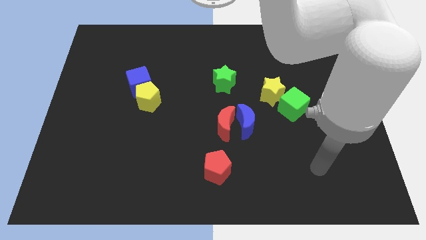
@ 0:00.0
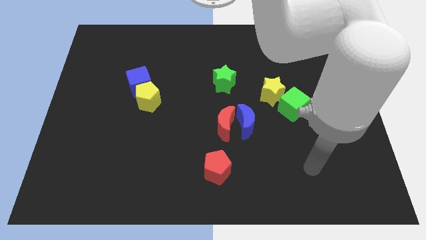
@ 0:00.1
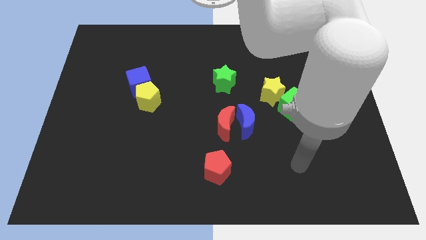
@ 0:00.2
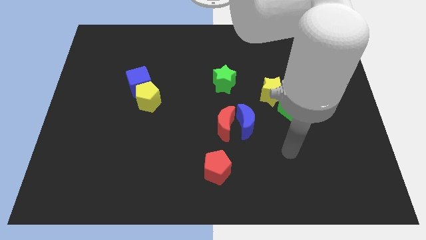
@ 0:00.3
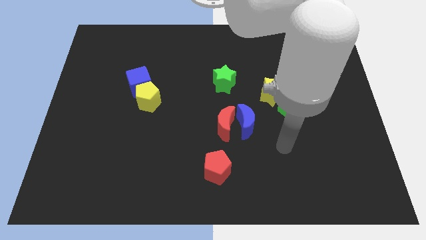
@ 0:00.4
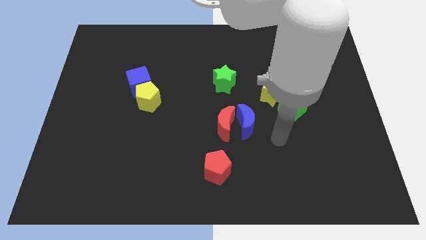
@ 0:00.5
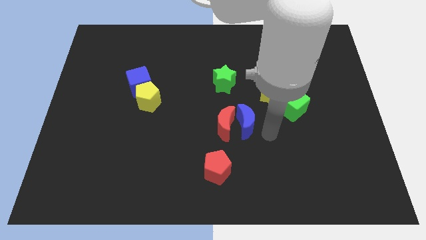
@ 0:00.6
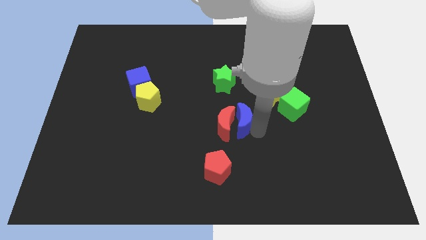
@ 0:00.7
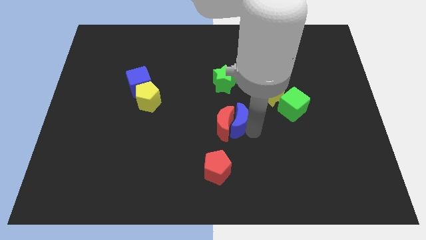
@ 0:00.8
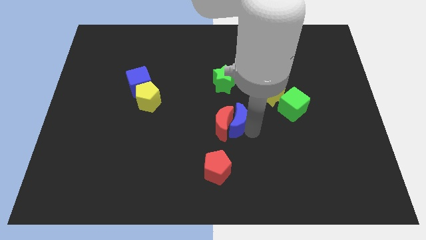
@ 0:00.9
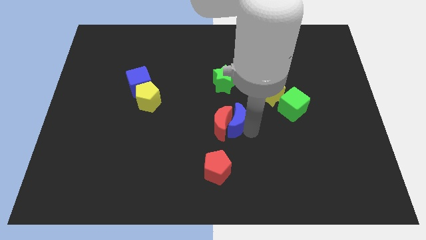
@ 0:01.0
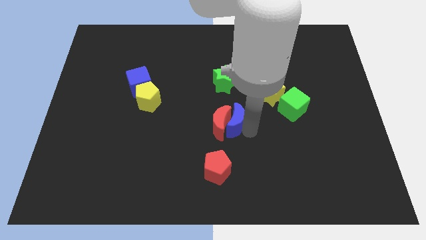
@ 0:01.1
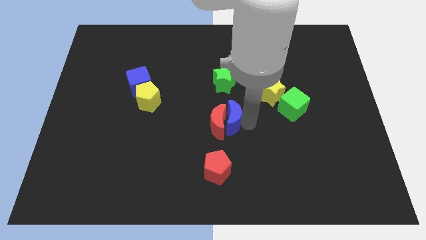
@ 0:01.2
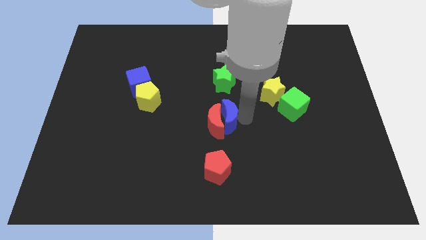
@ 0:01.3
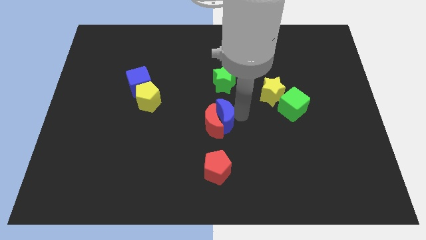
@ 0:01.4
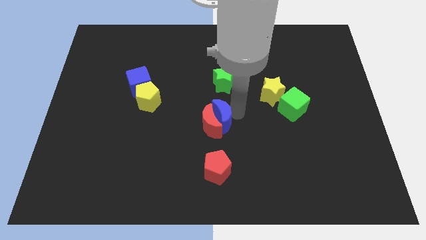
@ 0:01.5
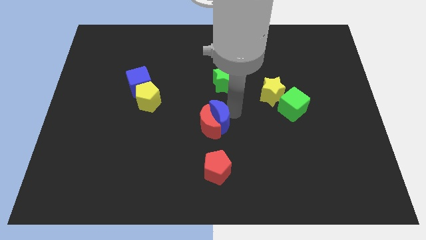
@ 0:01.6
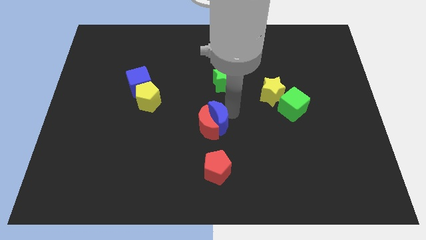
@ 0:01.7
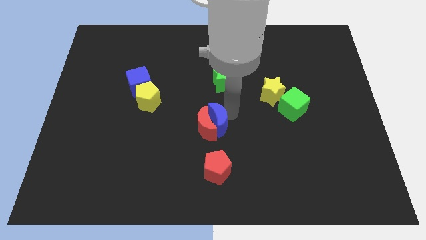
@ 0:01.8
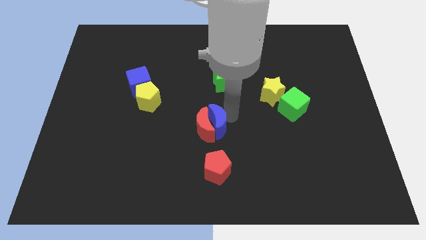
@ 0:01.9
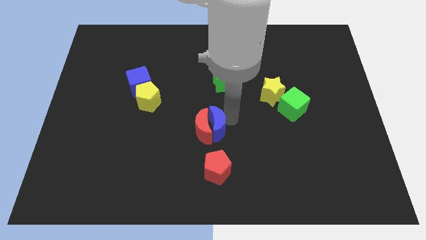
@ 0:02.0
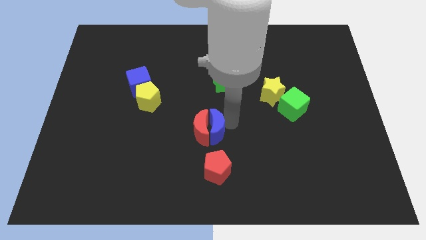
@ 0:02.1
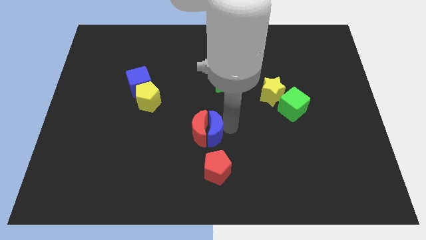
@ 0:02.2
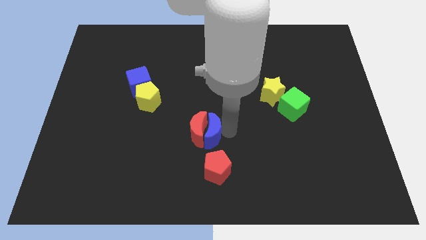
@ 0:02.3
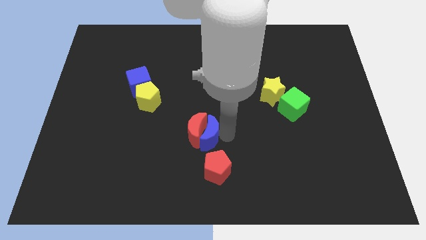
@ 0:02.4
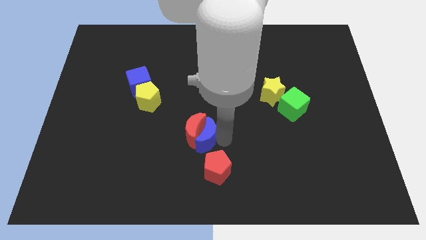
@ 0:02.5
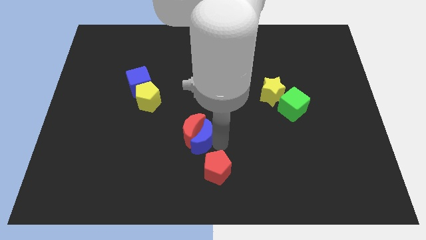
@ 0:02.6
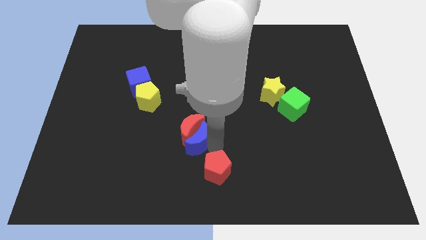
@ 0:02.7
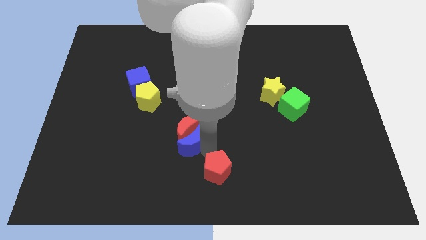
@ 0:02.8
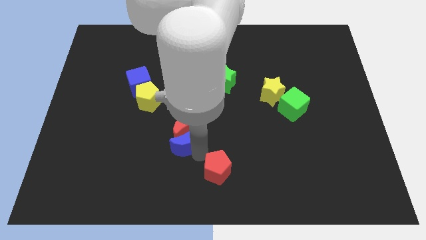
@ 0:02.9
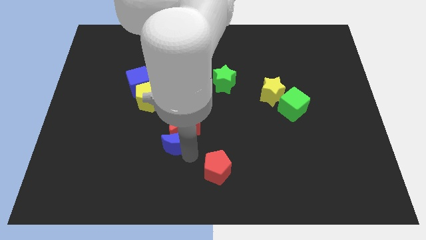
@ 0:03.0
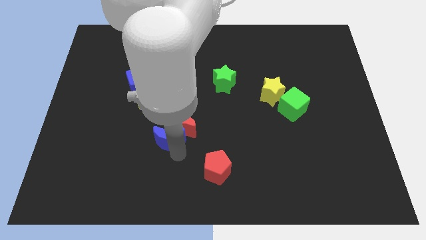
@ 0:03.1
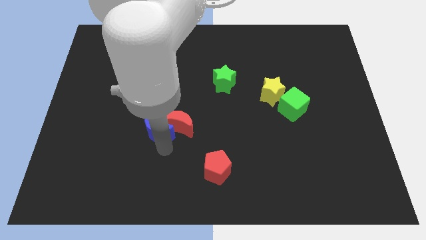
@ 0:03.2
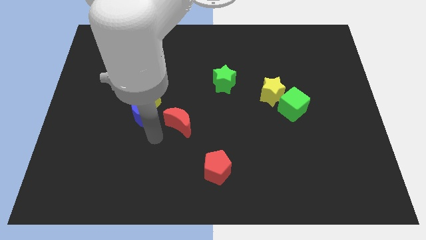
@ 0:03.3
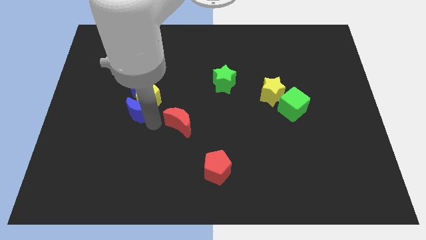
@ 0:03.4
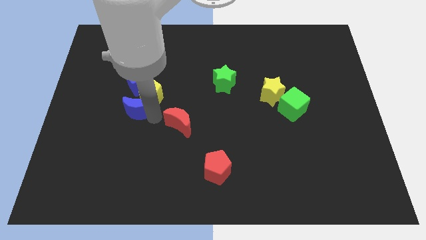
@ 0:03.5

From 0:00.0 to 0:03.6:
pull the red moon apart from the blue moon

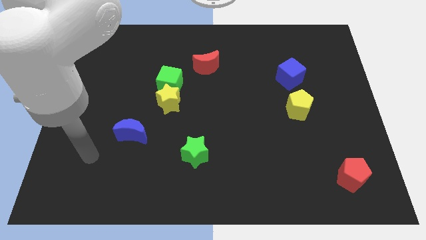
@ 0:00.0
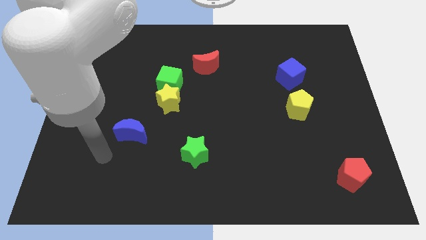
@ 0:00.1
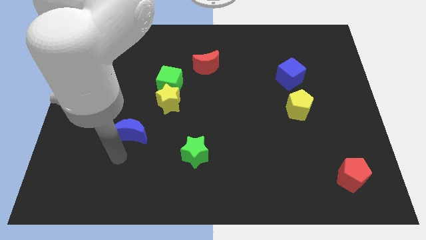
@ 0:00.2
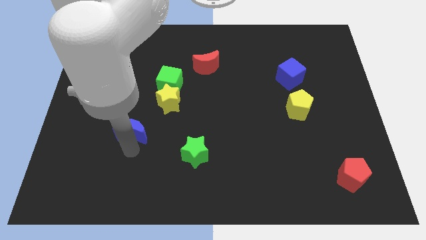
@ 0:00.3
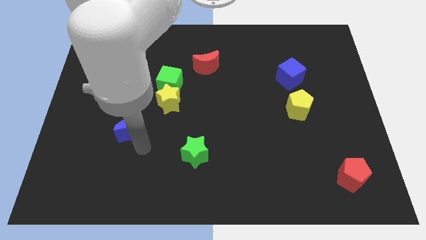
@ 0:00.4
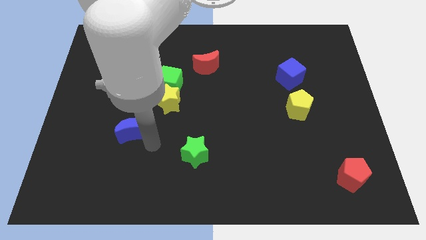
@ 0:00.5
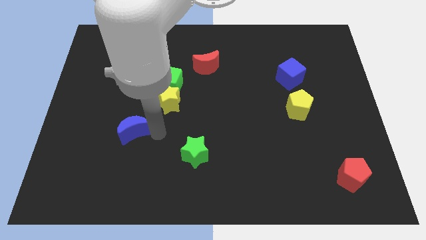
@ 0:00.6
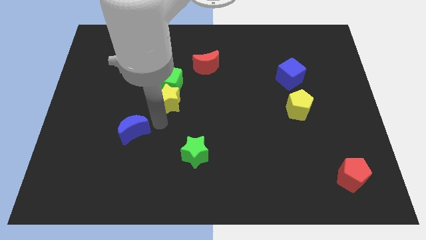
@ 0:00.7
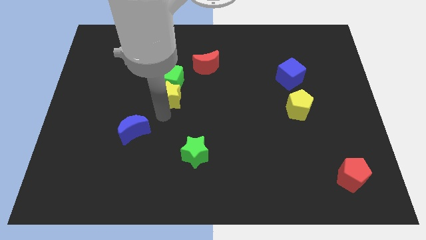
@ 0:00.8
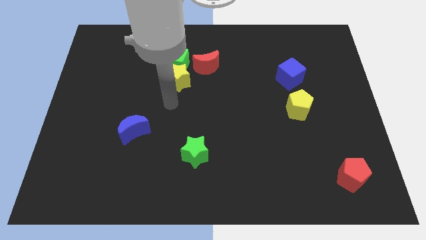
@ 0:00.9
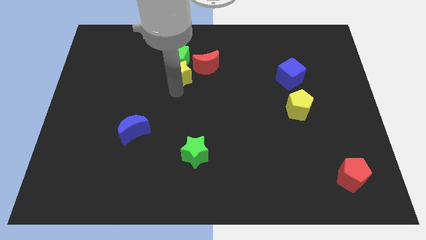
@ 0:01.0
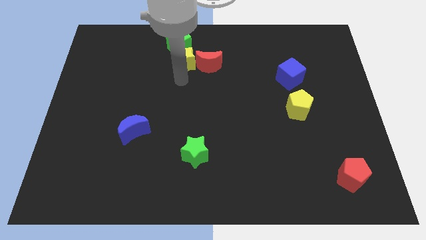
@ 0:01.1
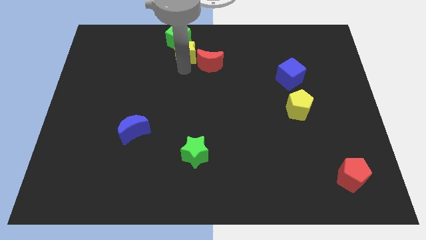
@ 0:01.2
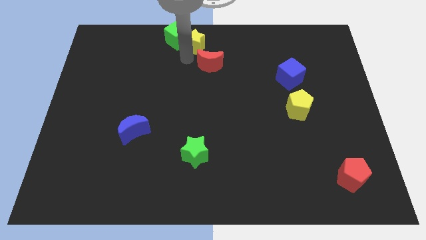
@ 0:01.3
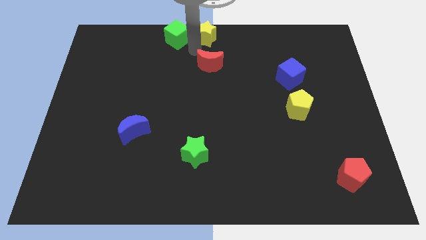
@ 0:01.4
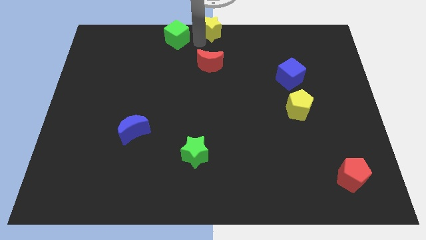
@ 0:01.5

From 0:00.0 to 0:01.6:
pull the green cube apart from the yellow star

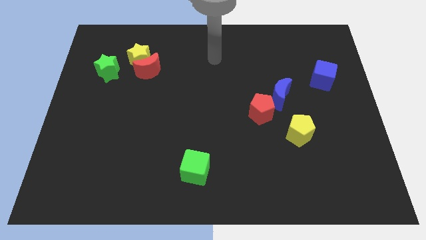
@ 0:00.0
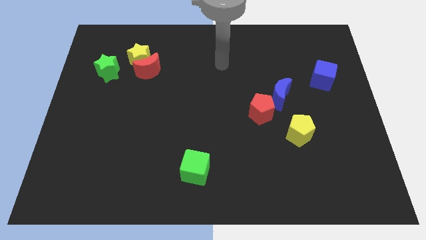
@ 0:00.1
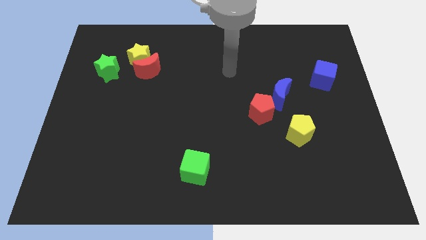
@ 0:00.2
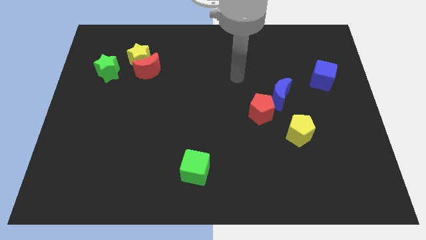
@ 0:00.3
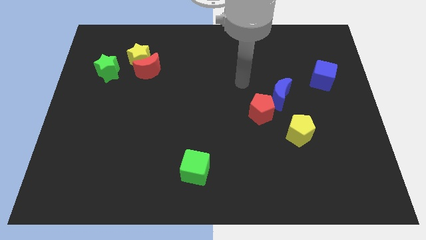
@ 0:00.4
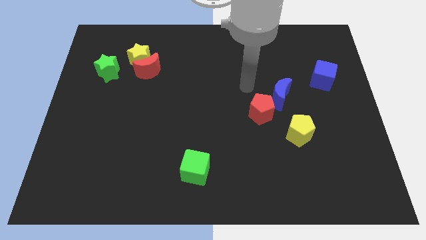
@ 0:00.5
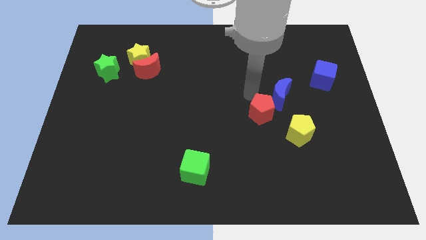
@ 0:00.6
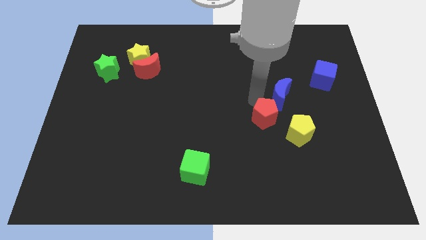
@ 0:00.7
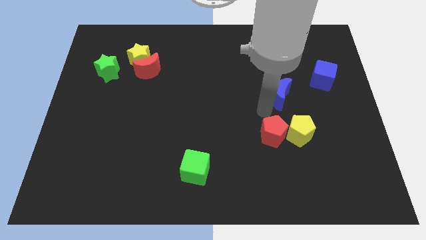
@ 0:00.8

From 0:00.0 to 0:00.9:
separate the blue moon from the red pentagon

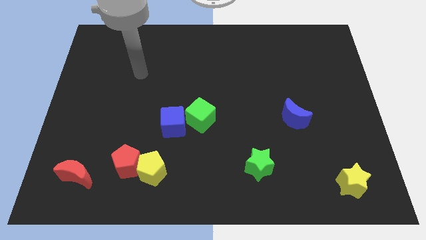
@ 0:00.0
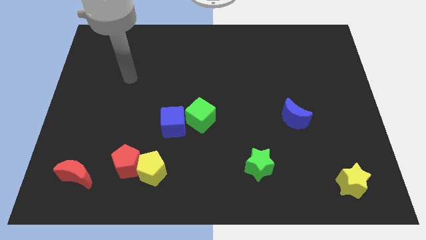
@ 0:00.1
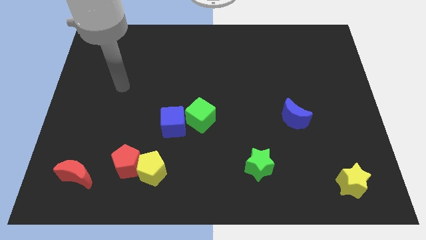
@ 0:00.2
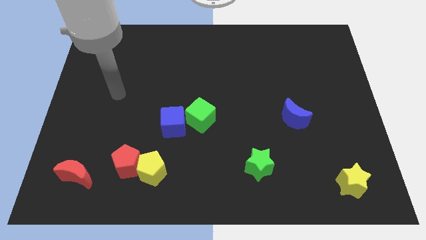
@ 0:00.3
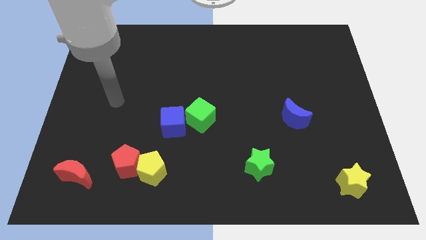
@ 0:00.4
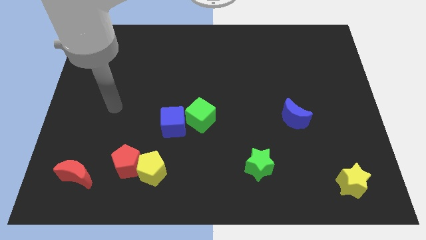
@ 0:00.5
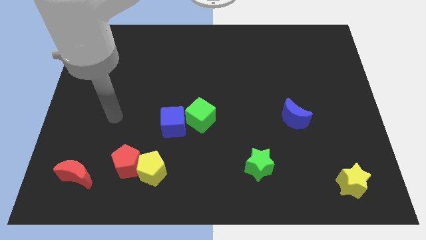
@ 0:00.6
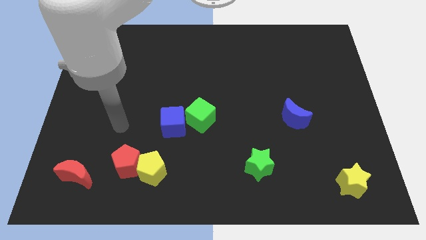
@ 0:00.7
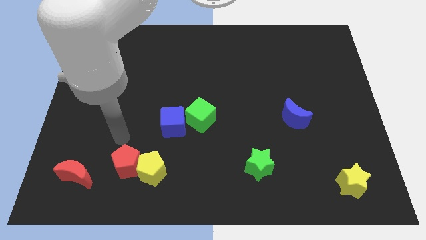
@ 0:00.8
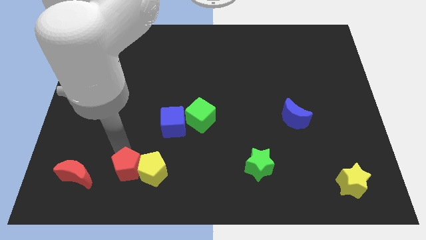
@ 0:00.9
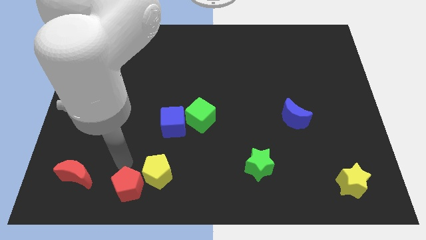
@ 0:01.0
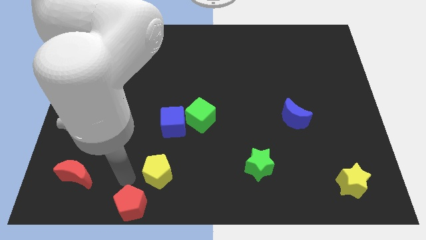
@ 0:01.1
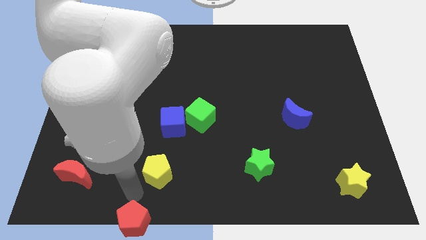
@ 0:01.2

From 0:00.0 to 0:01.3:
pull the yellow pentagon apart from the red pentagon

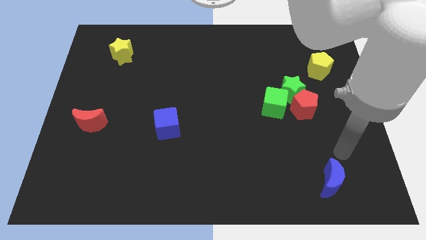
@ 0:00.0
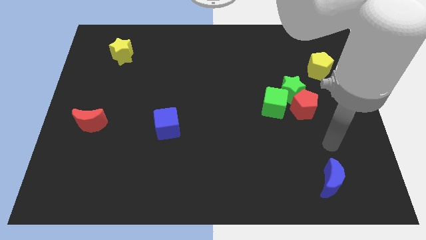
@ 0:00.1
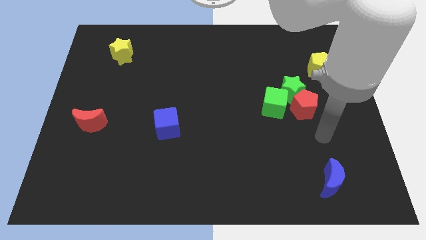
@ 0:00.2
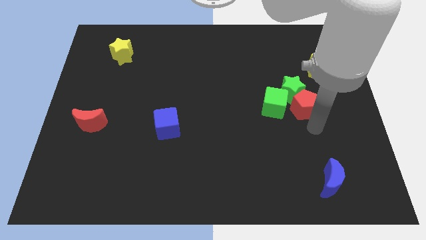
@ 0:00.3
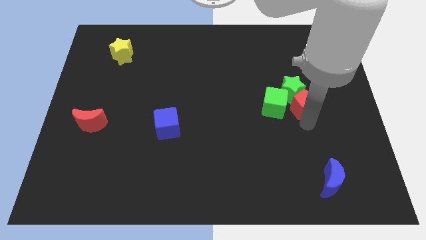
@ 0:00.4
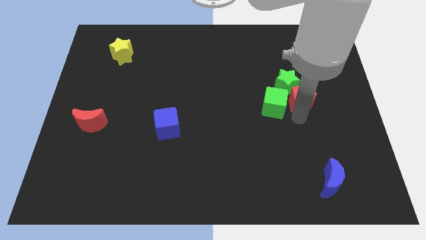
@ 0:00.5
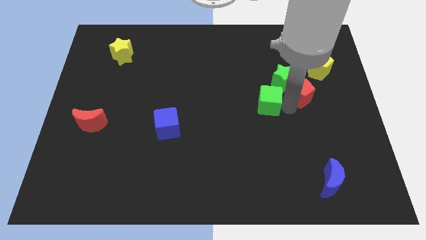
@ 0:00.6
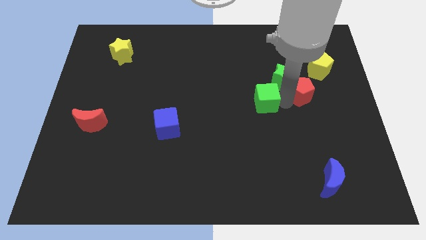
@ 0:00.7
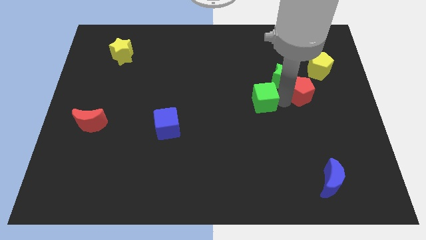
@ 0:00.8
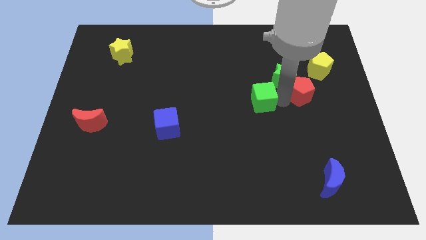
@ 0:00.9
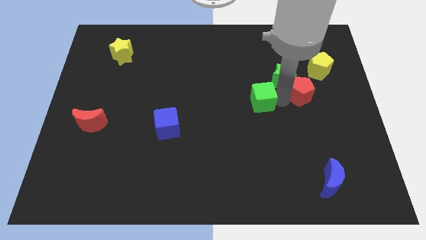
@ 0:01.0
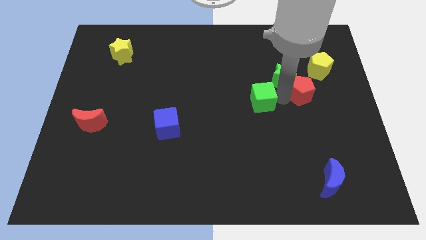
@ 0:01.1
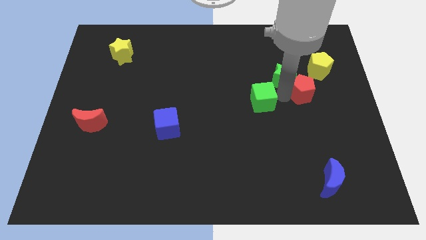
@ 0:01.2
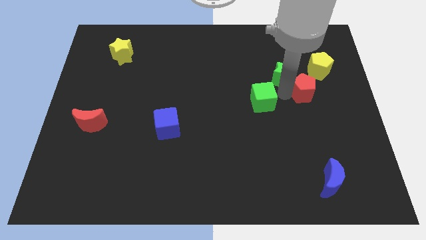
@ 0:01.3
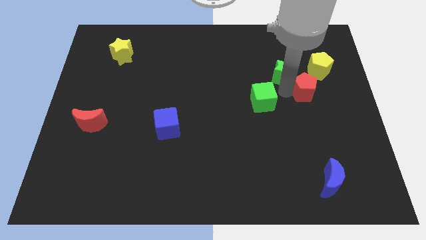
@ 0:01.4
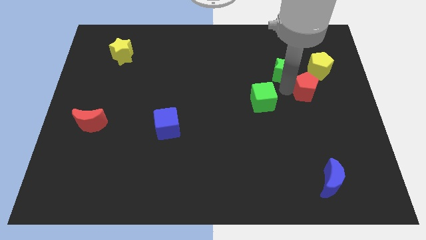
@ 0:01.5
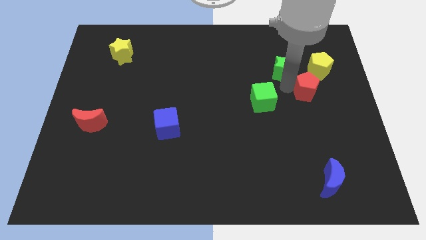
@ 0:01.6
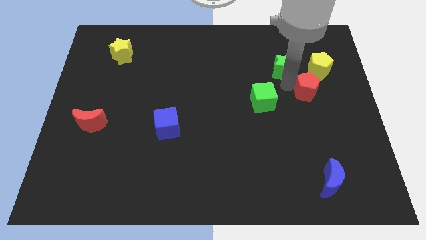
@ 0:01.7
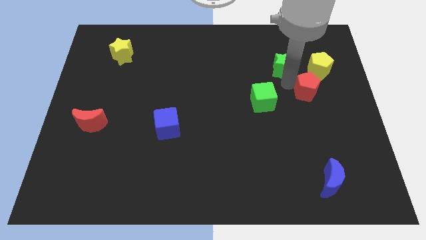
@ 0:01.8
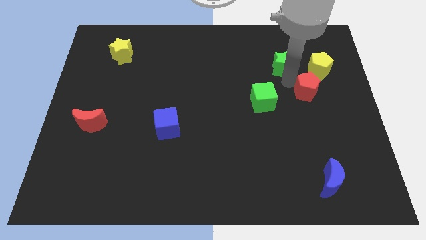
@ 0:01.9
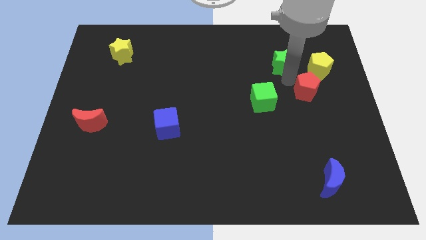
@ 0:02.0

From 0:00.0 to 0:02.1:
move the green star away from the red pentagon and green cube
